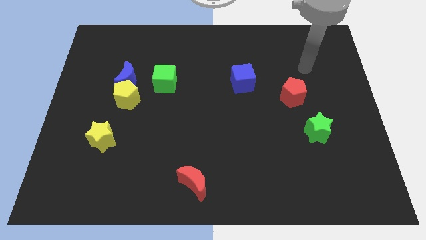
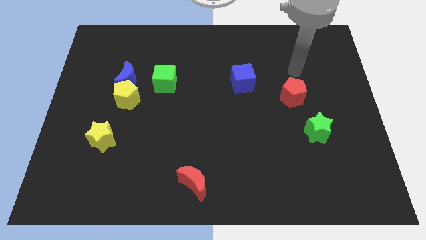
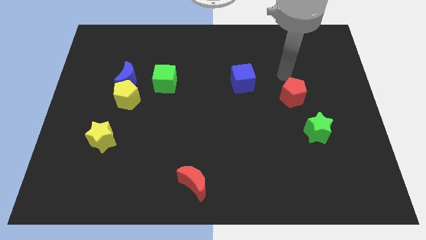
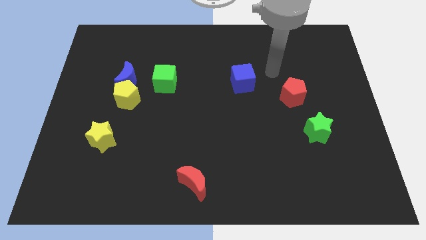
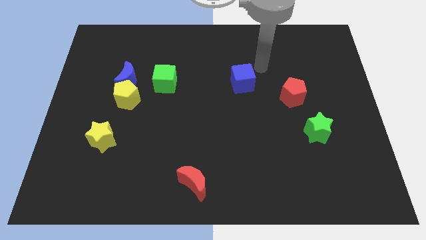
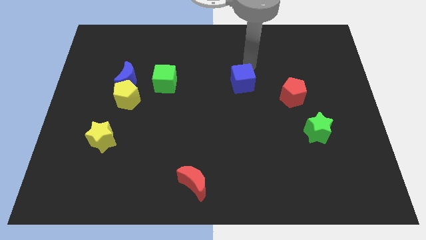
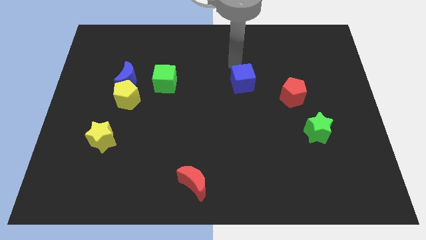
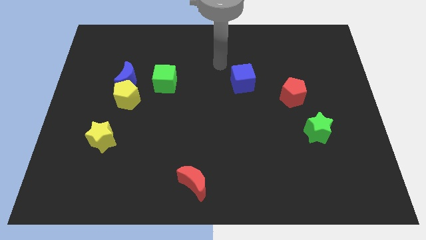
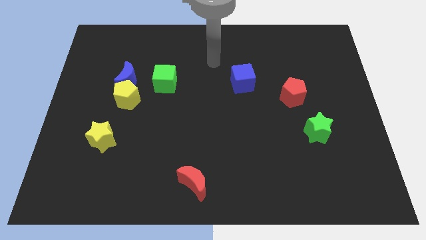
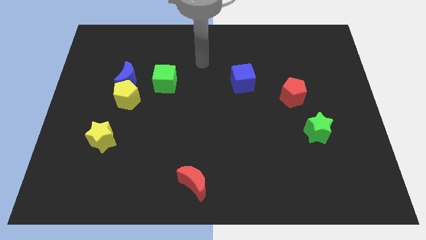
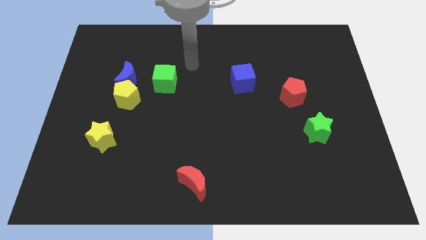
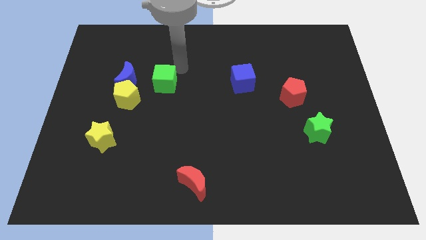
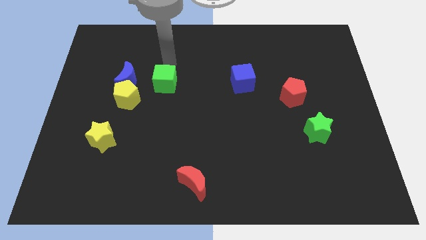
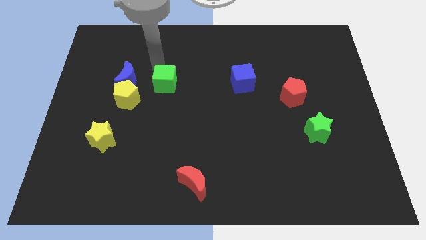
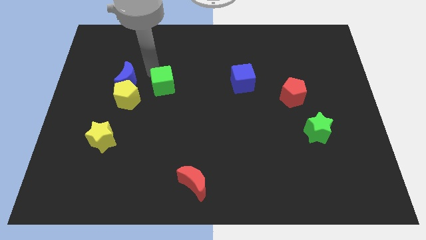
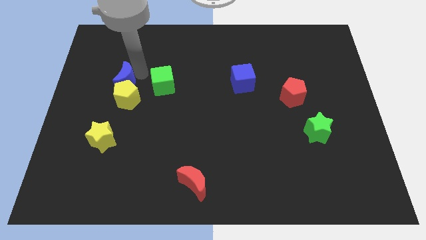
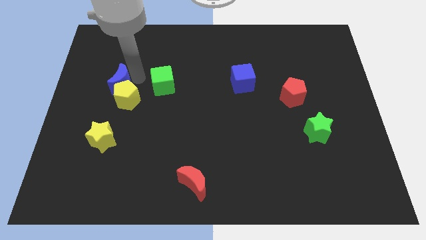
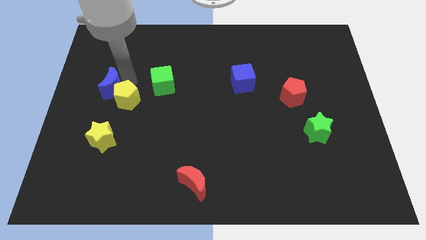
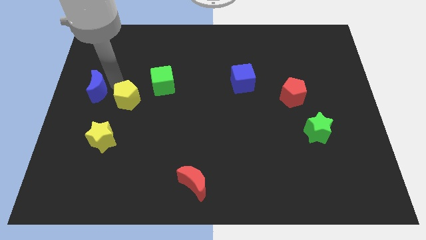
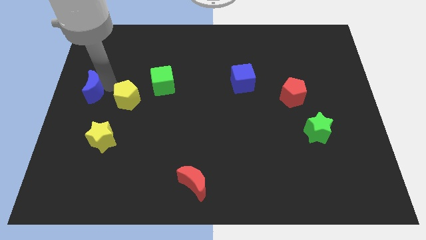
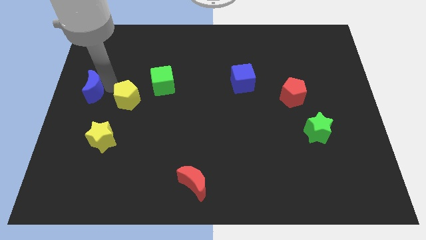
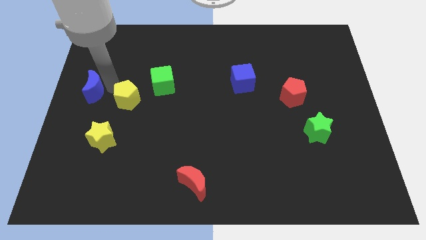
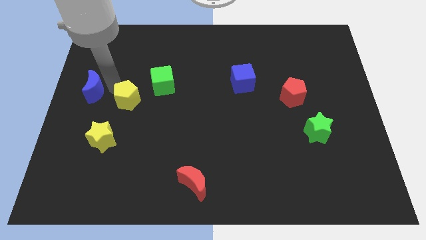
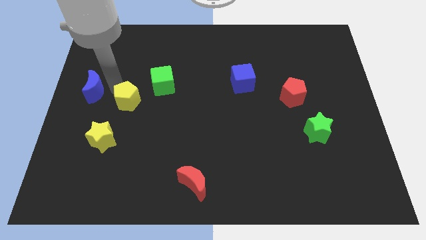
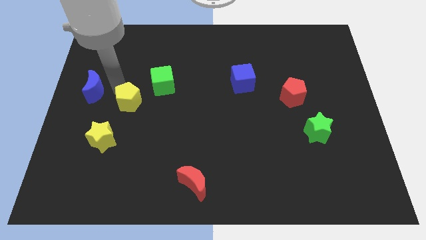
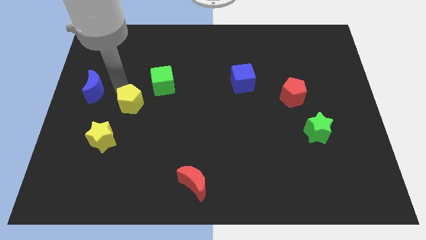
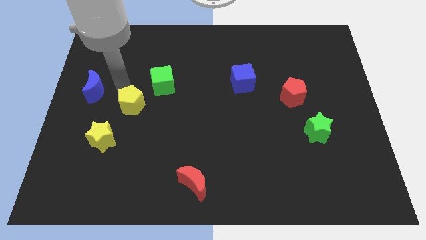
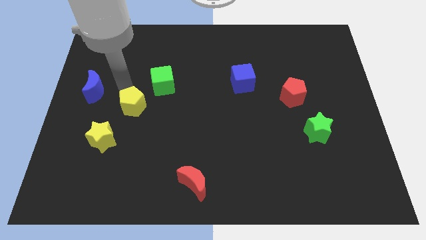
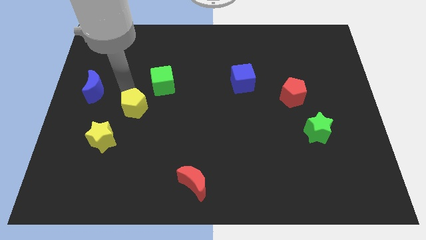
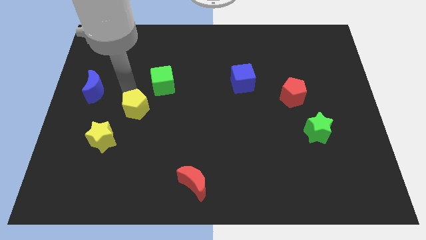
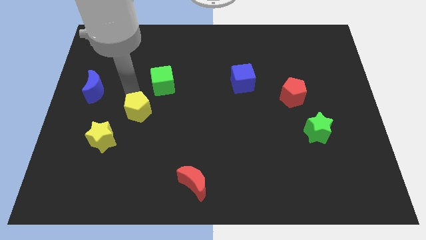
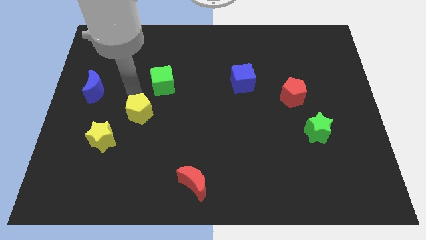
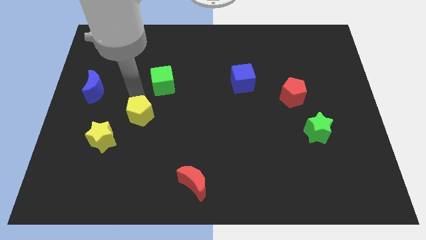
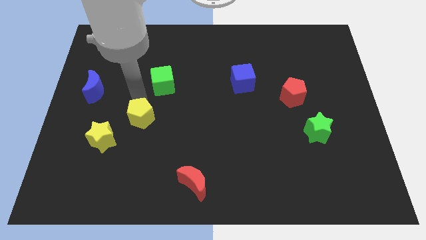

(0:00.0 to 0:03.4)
push the yellow pentagon a bit downwards and then to the right

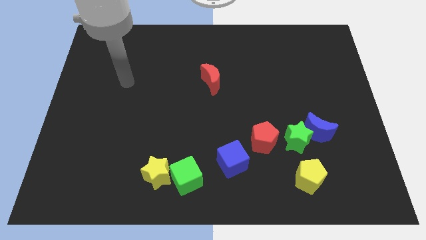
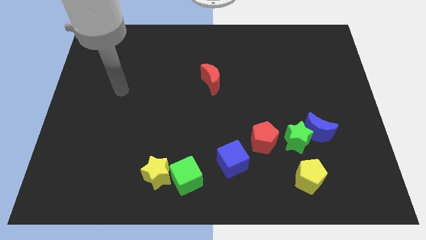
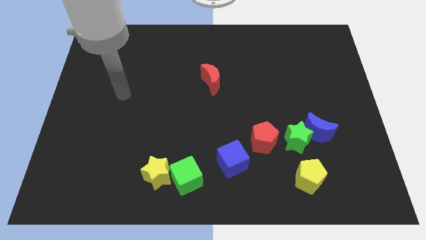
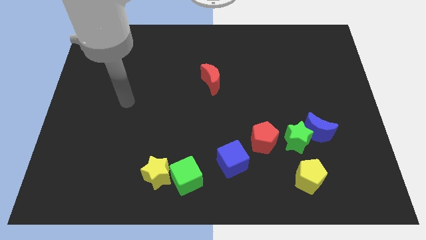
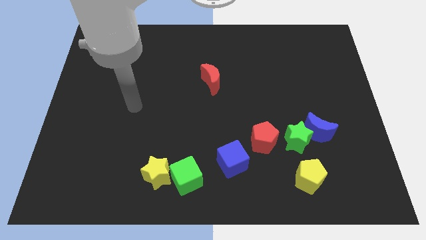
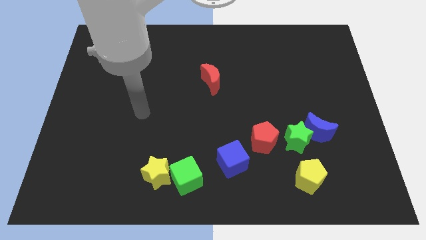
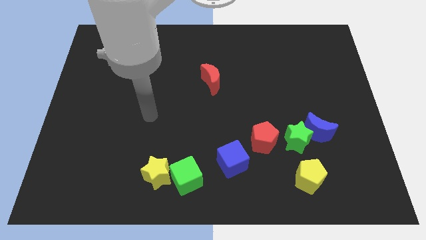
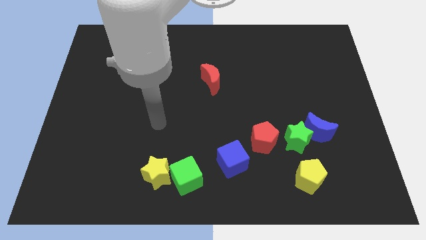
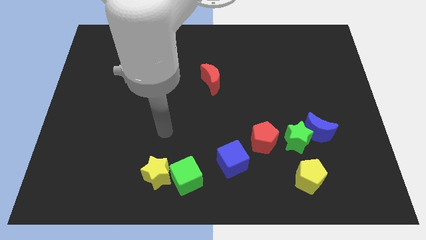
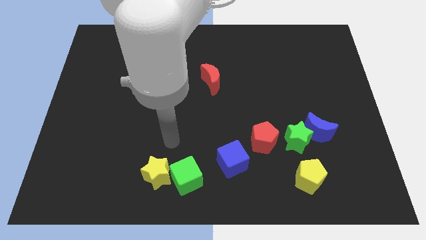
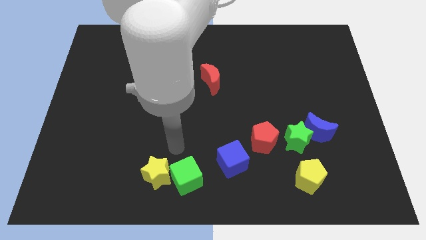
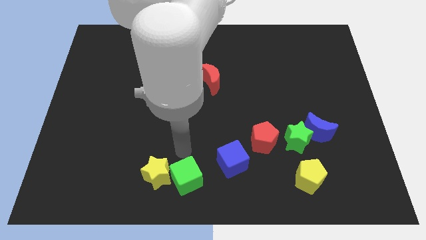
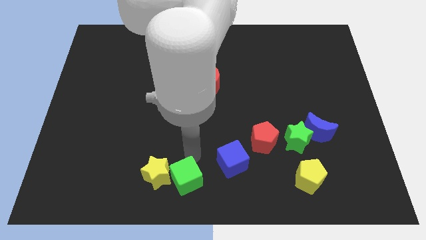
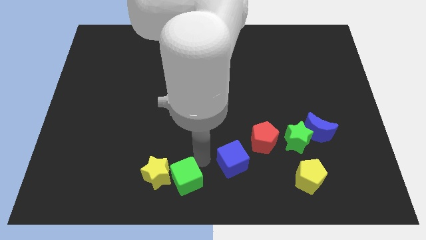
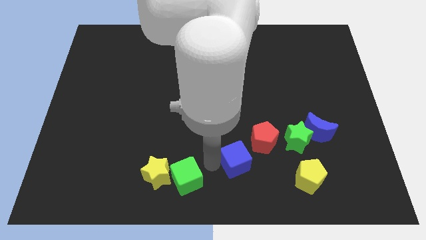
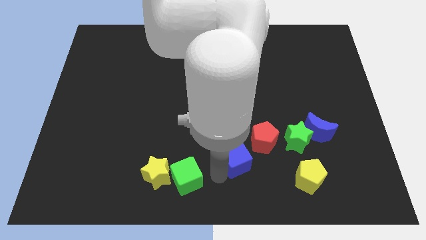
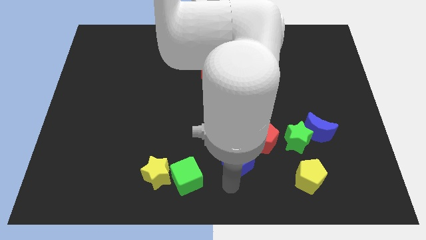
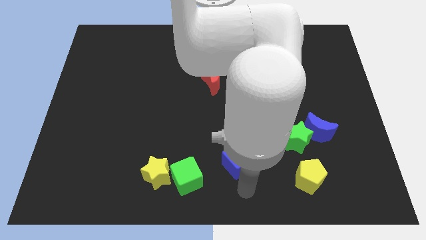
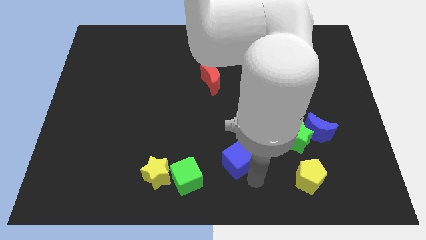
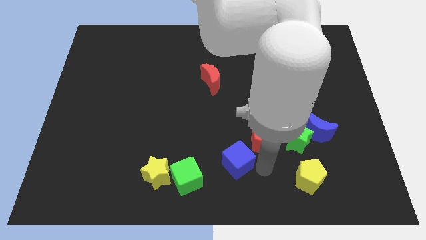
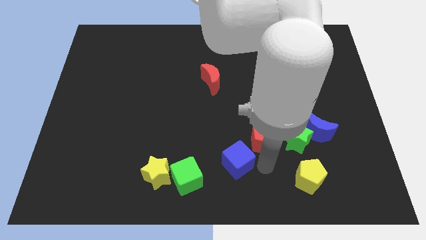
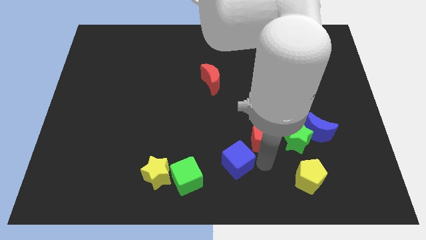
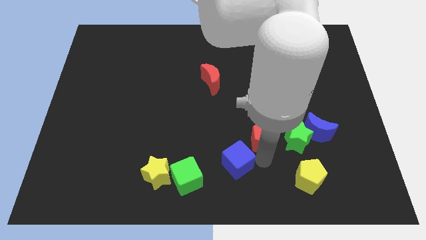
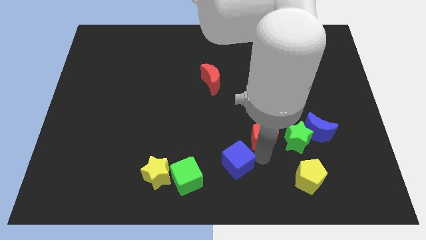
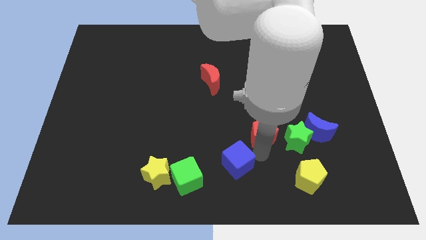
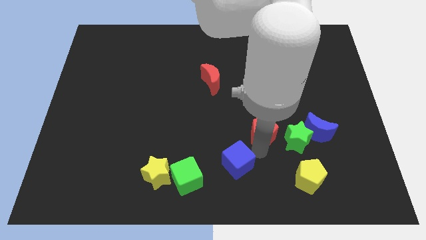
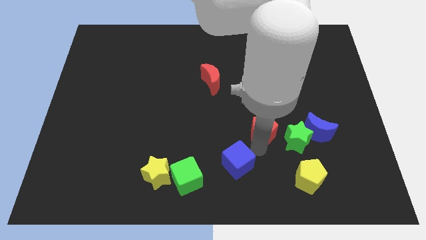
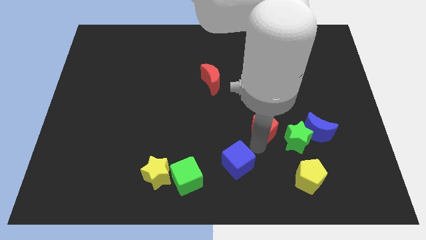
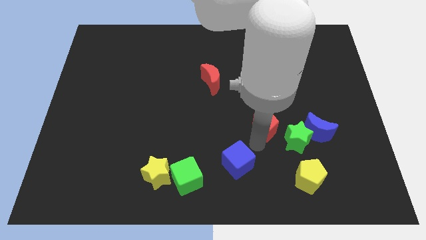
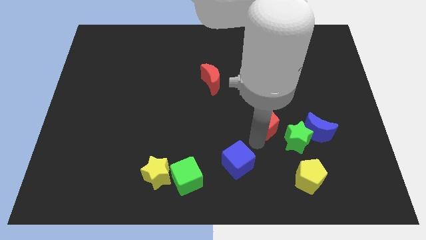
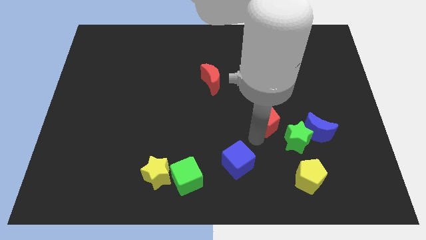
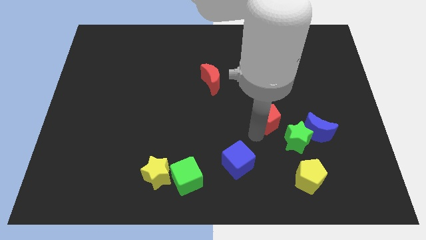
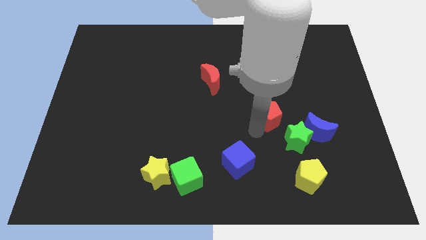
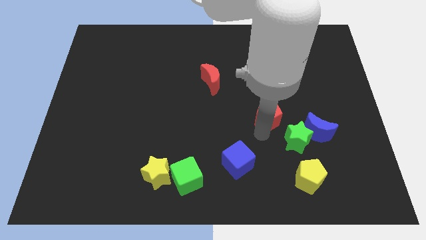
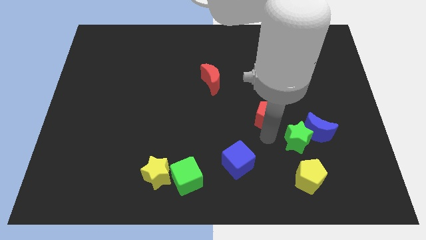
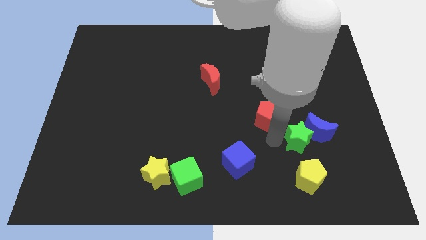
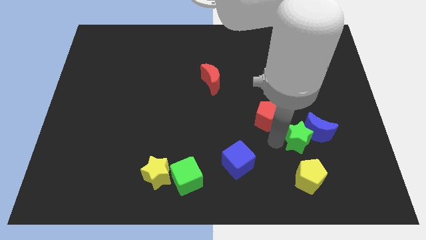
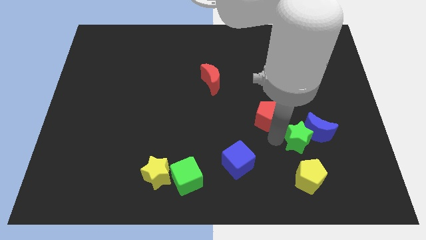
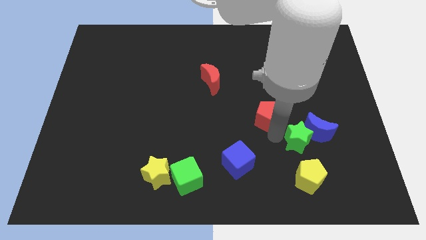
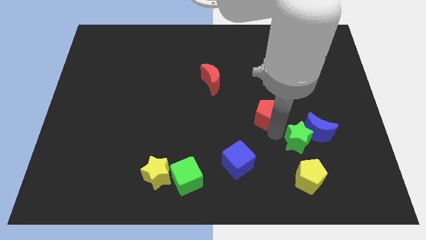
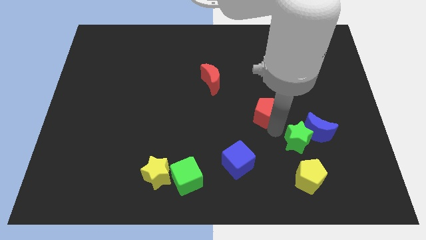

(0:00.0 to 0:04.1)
push the red pentagon a bit up

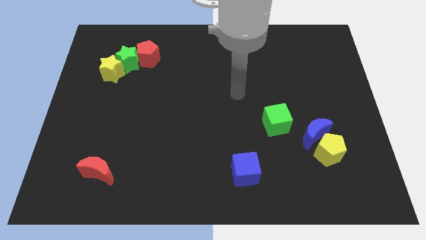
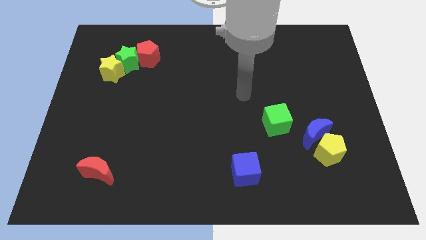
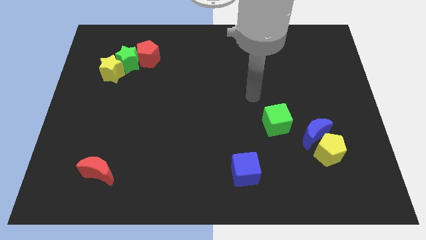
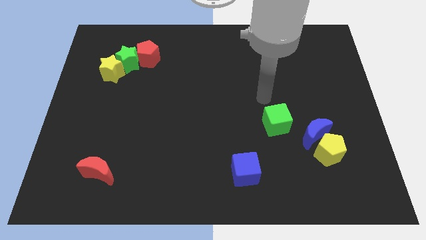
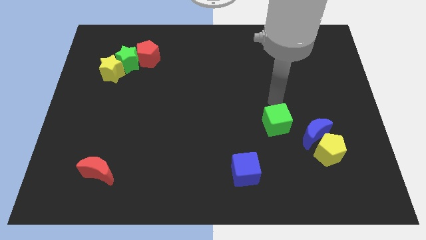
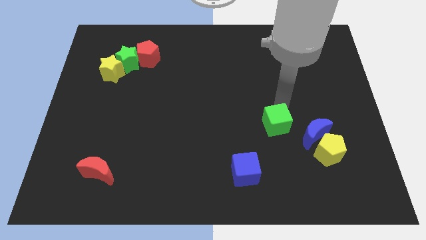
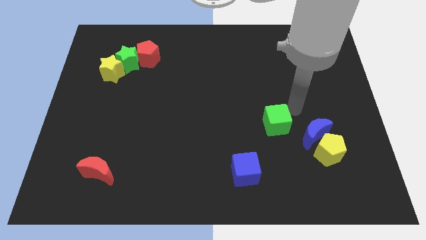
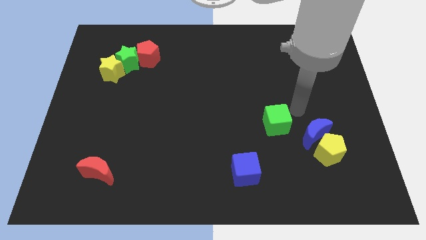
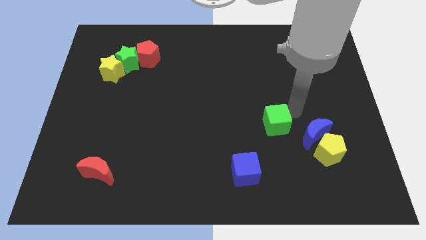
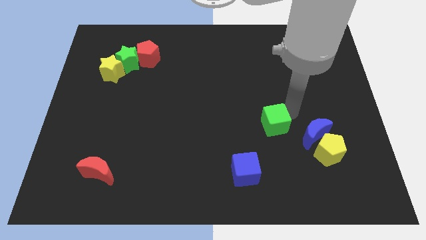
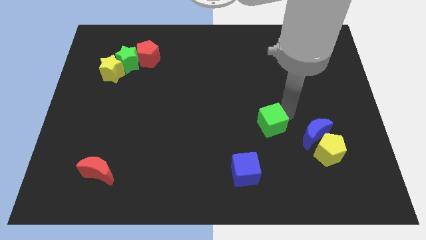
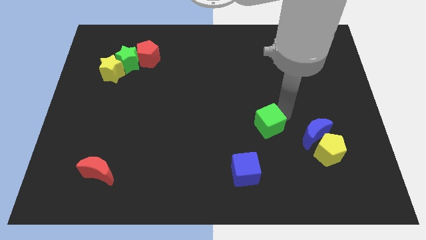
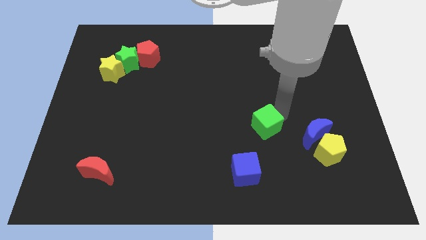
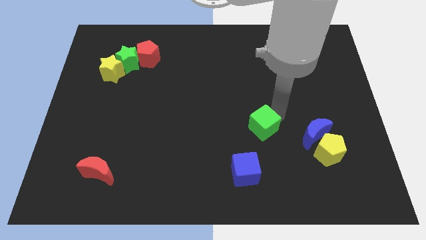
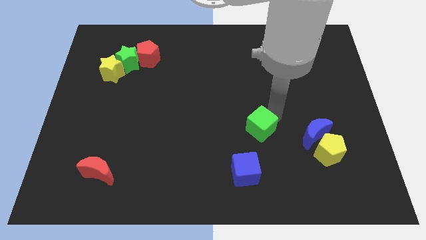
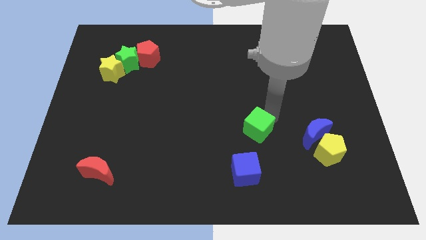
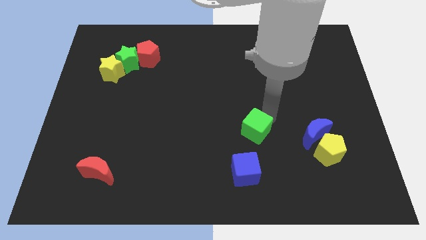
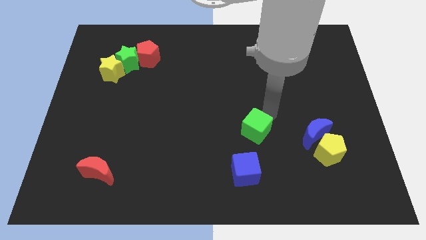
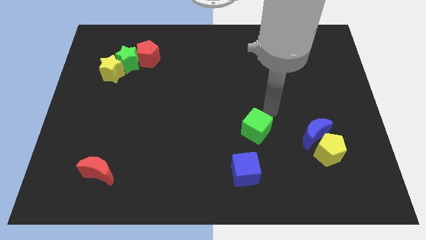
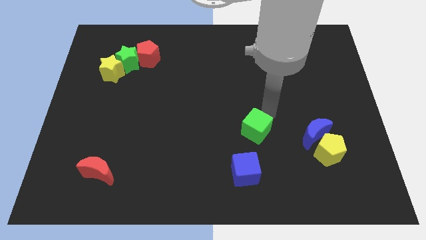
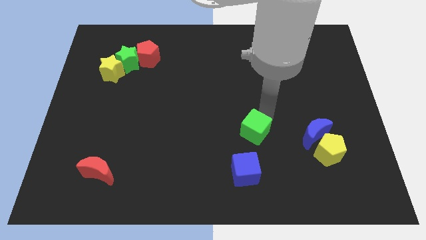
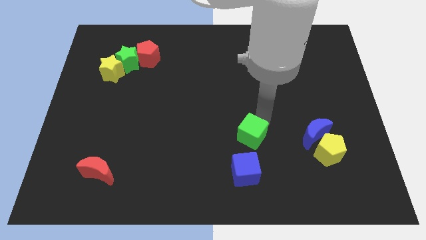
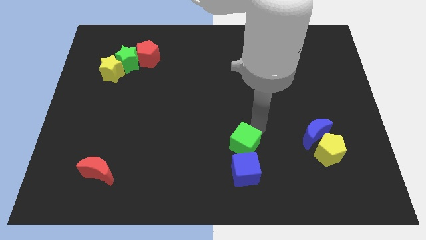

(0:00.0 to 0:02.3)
slightly move the green cube down and left diagonally
